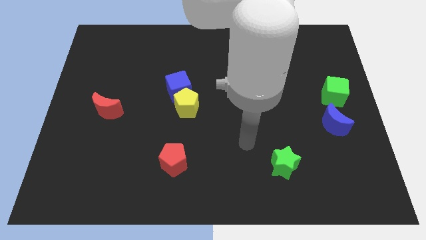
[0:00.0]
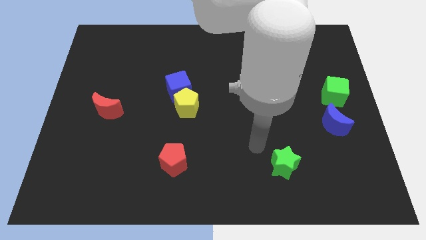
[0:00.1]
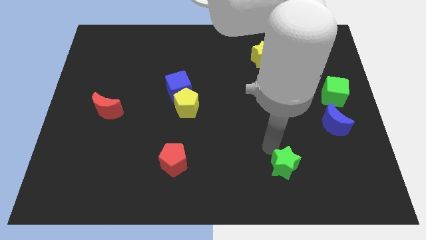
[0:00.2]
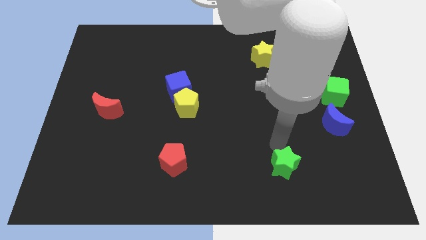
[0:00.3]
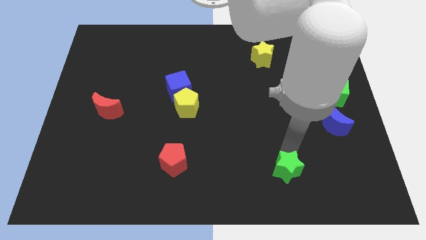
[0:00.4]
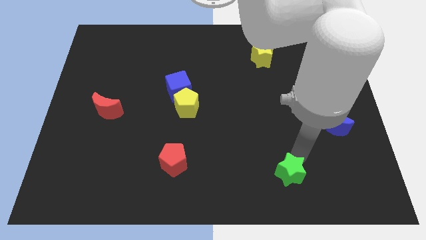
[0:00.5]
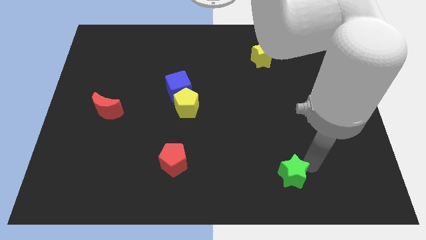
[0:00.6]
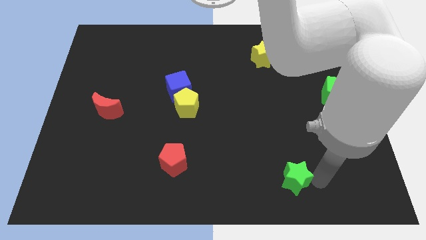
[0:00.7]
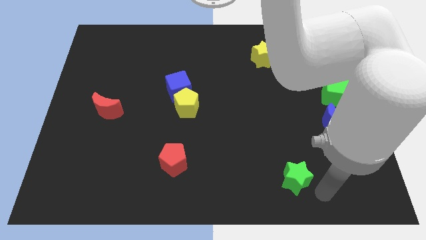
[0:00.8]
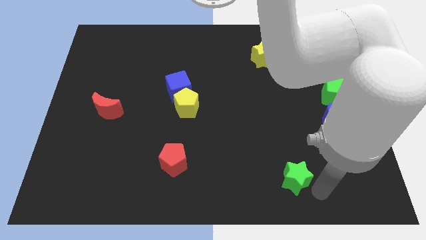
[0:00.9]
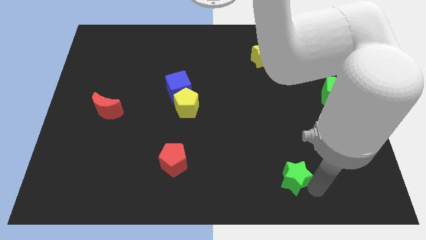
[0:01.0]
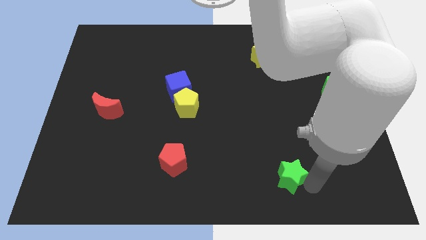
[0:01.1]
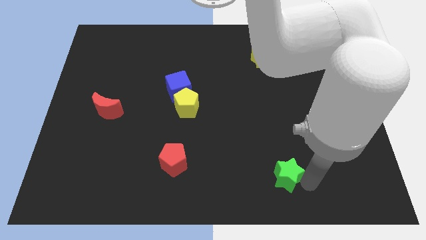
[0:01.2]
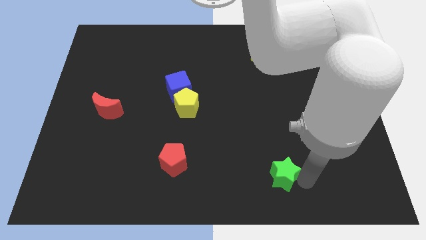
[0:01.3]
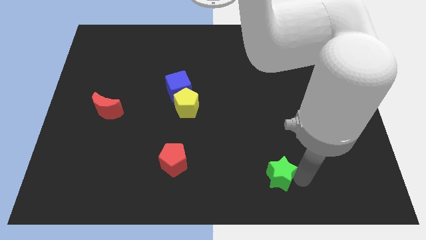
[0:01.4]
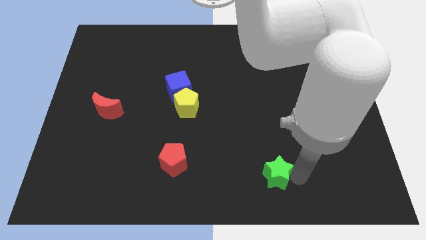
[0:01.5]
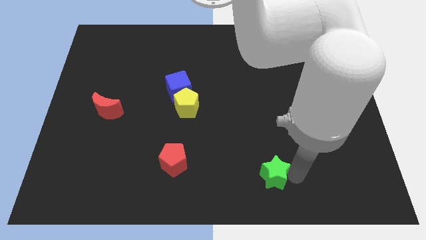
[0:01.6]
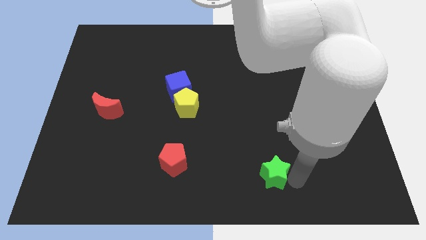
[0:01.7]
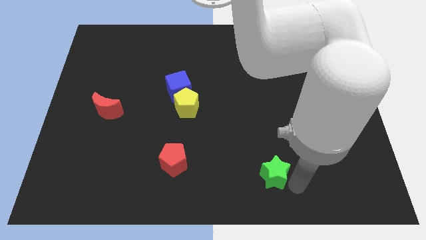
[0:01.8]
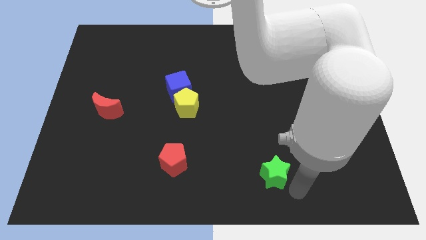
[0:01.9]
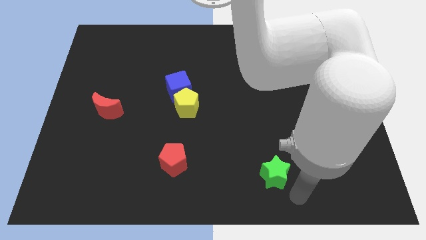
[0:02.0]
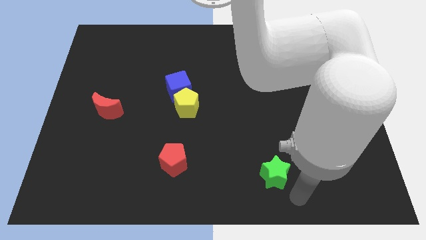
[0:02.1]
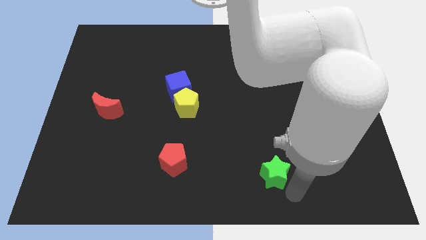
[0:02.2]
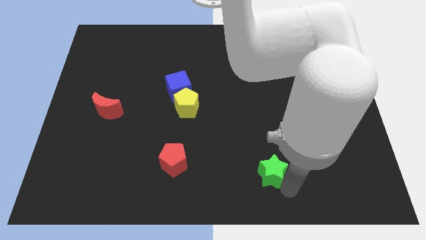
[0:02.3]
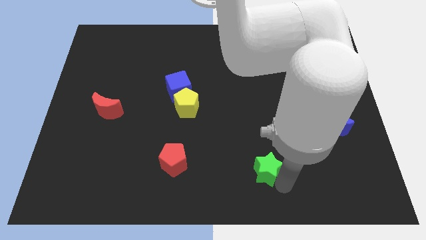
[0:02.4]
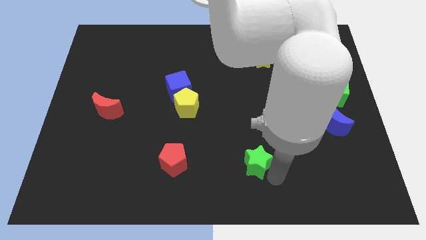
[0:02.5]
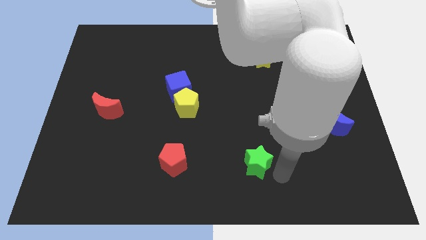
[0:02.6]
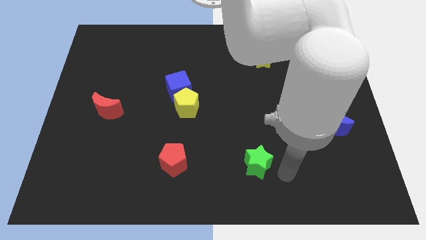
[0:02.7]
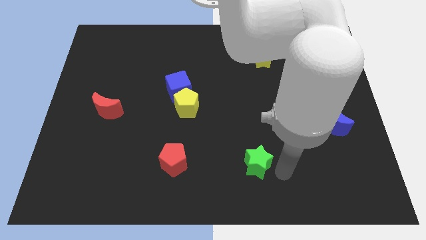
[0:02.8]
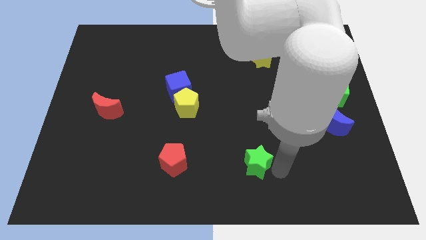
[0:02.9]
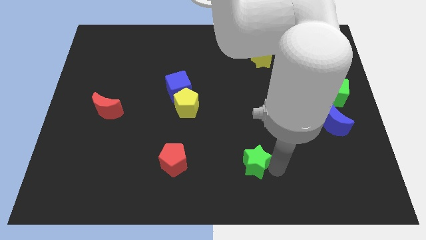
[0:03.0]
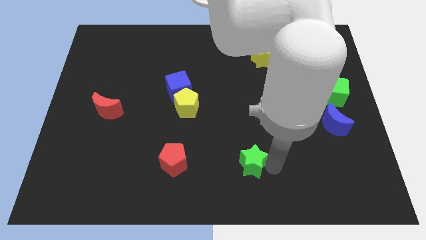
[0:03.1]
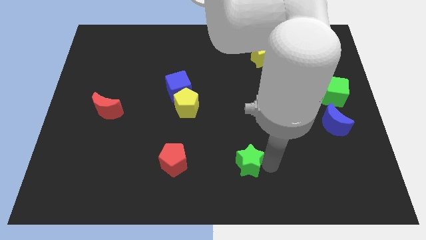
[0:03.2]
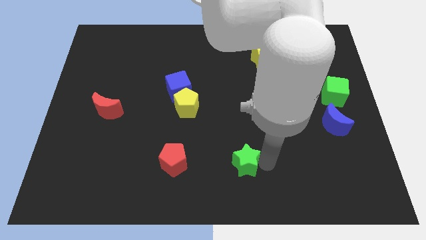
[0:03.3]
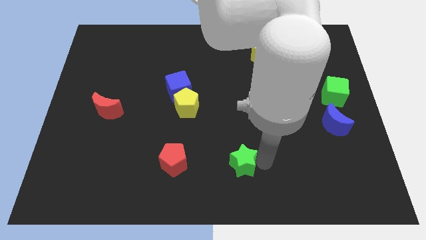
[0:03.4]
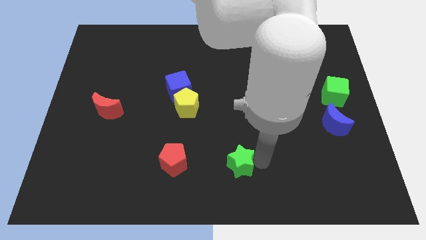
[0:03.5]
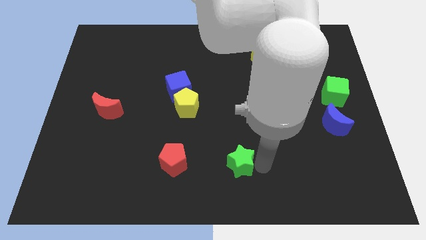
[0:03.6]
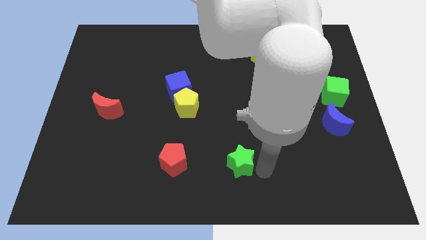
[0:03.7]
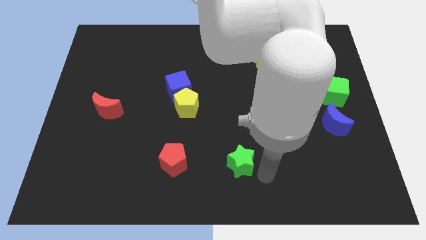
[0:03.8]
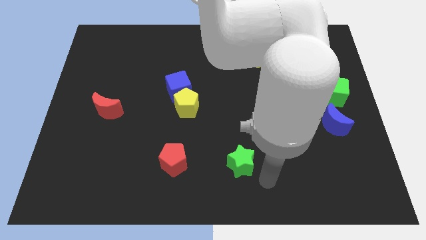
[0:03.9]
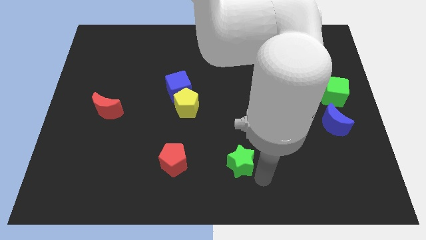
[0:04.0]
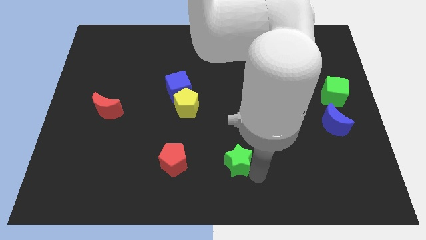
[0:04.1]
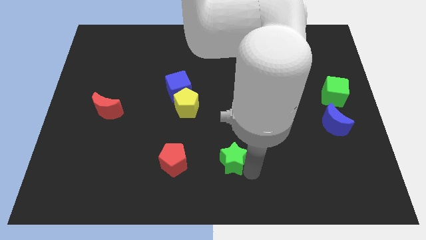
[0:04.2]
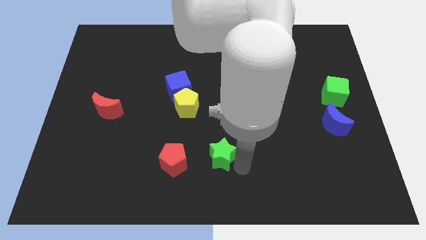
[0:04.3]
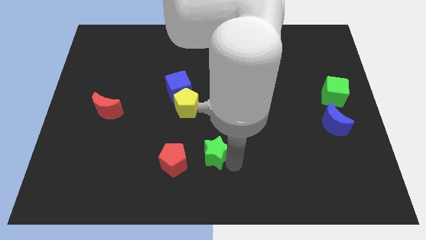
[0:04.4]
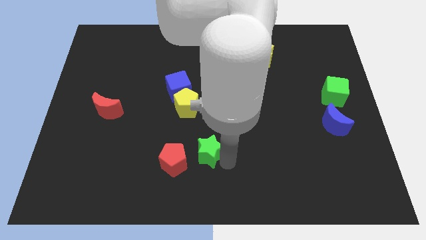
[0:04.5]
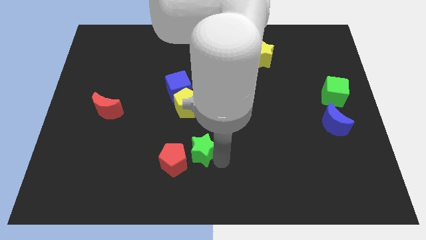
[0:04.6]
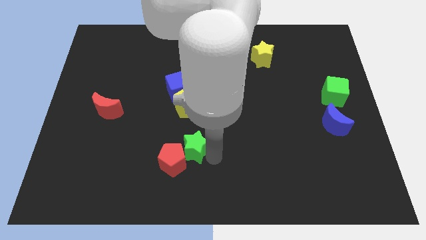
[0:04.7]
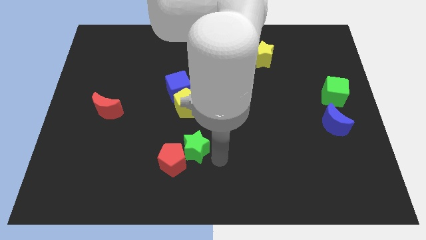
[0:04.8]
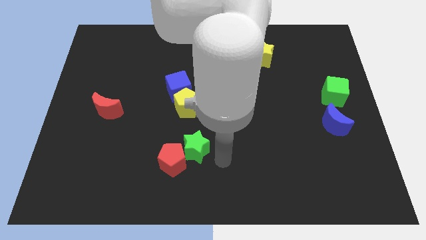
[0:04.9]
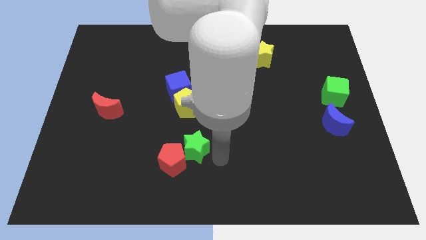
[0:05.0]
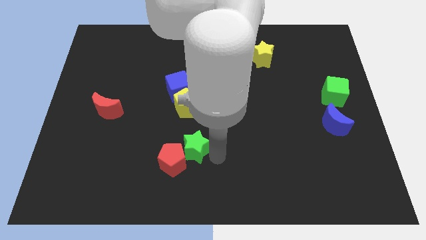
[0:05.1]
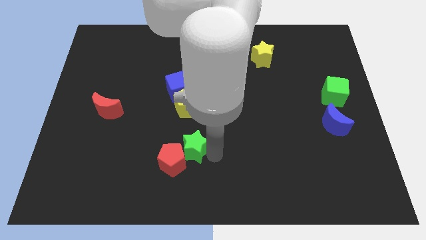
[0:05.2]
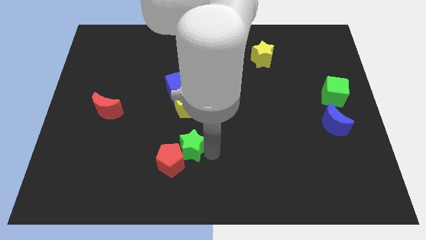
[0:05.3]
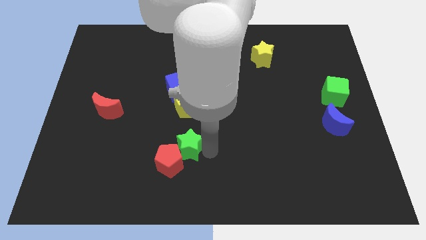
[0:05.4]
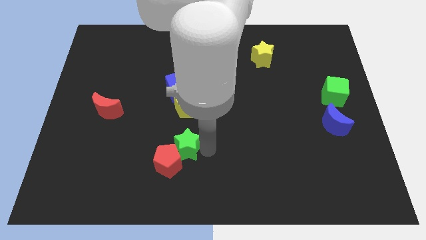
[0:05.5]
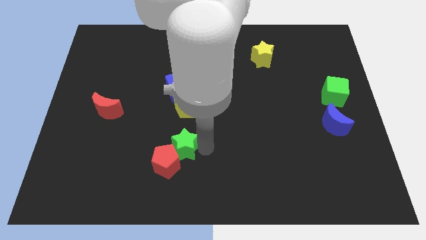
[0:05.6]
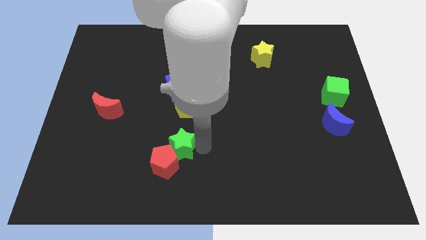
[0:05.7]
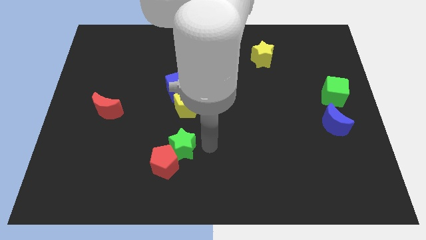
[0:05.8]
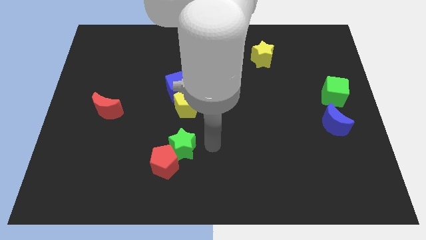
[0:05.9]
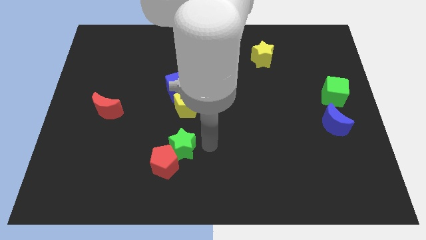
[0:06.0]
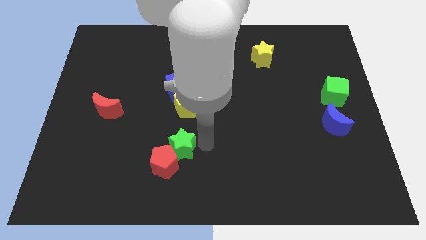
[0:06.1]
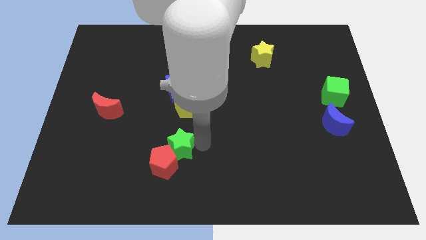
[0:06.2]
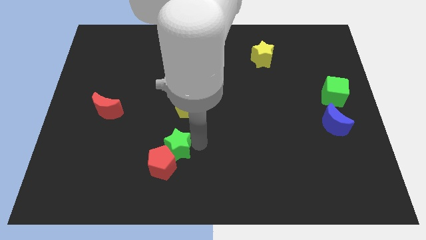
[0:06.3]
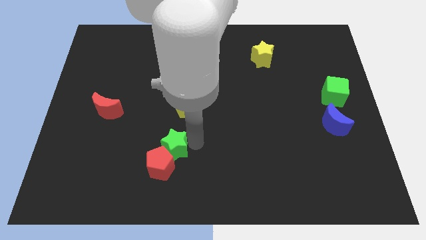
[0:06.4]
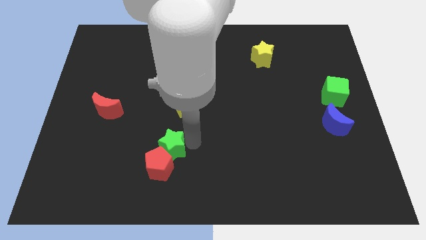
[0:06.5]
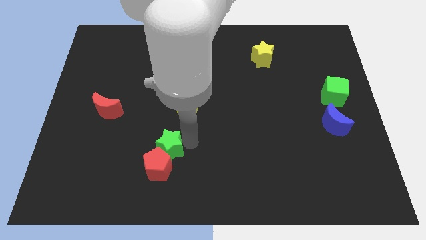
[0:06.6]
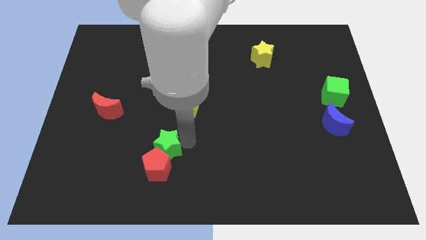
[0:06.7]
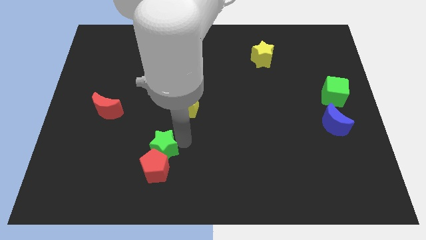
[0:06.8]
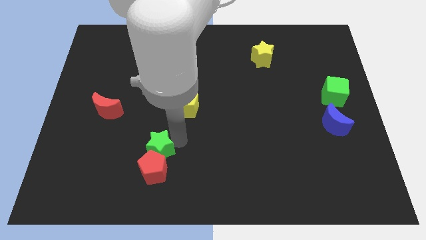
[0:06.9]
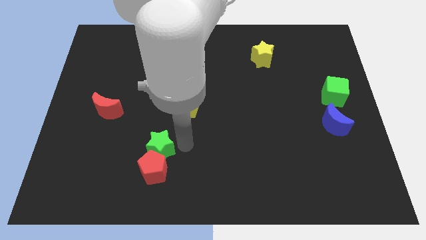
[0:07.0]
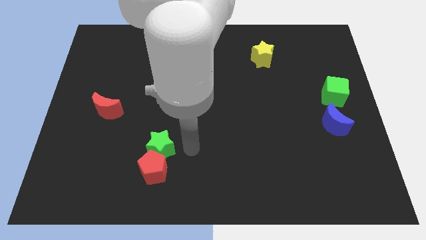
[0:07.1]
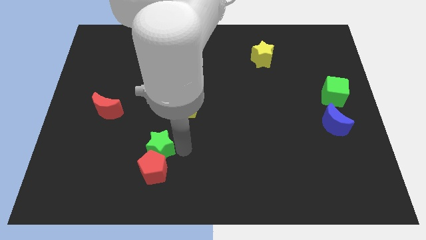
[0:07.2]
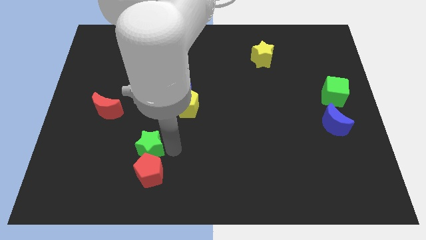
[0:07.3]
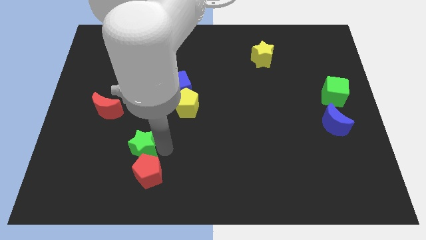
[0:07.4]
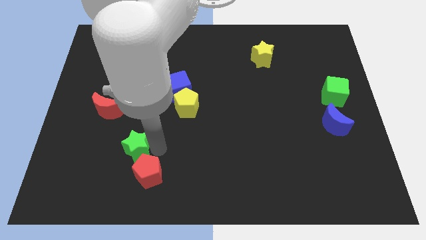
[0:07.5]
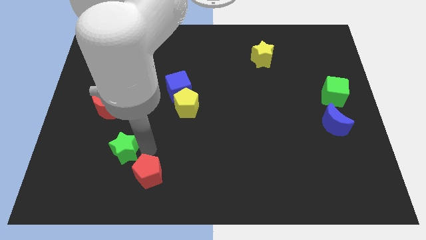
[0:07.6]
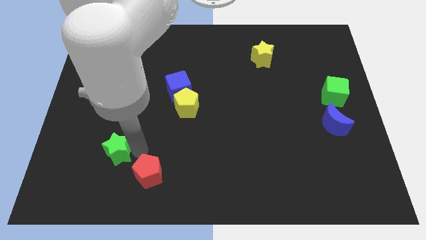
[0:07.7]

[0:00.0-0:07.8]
push the green star to the bottom of the red moon
